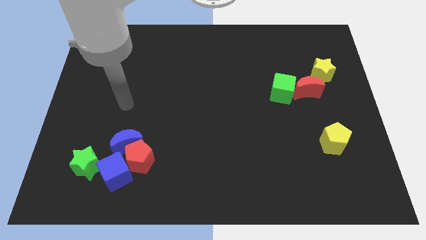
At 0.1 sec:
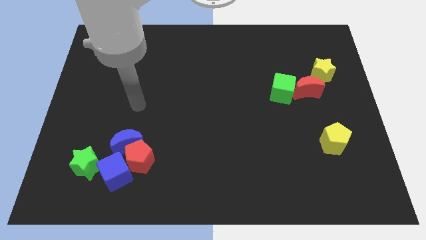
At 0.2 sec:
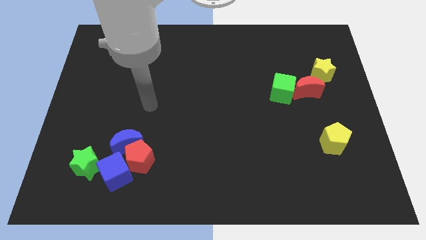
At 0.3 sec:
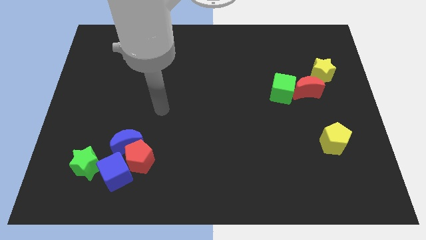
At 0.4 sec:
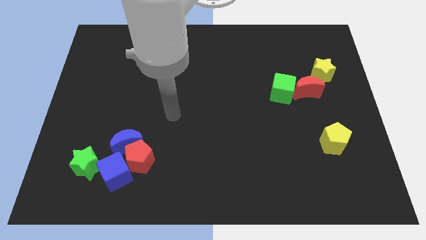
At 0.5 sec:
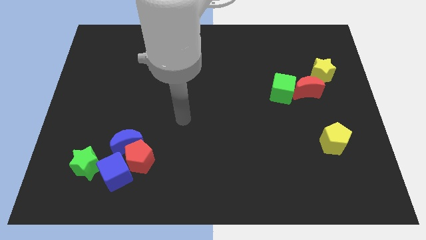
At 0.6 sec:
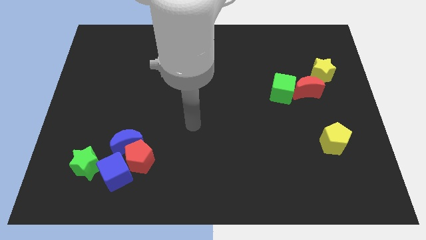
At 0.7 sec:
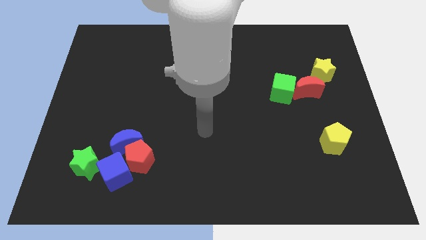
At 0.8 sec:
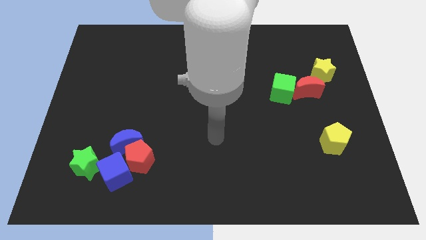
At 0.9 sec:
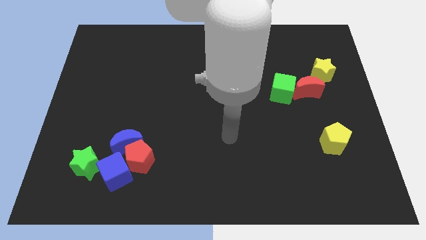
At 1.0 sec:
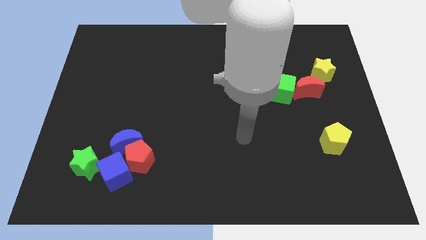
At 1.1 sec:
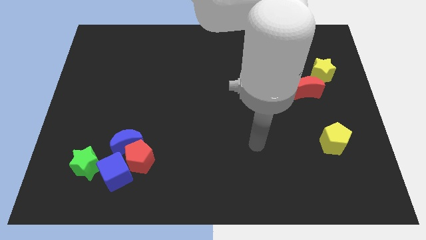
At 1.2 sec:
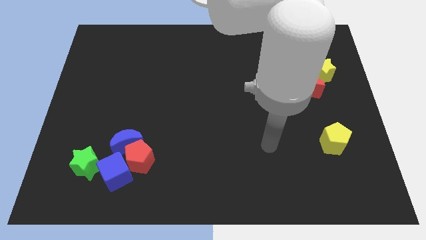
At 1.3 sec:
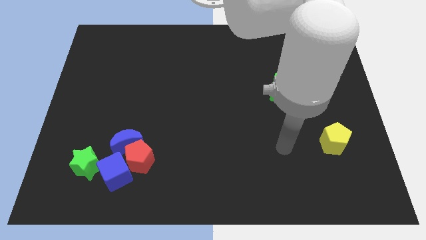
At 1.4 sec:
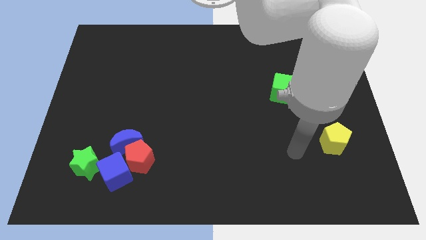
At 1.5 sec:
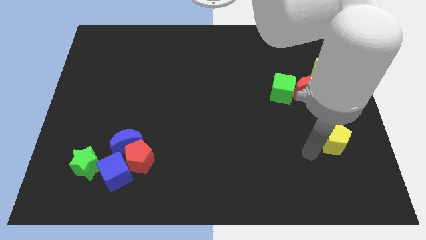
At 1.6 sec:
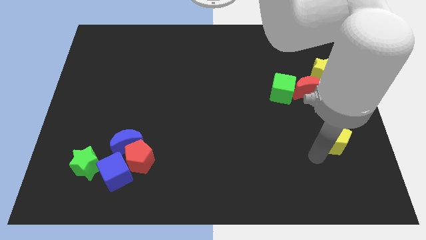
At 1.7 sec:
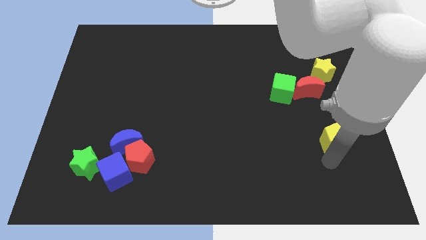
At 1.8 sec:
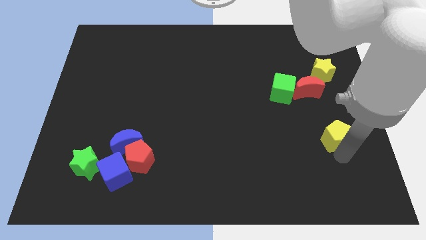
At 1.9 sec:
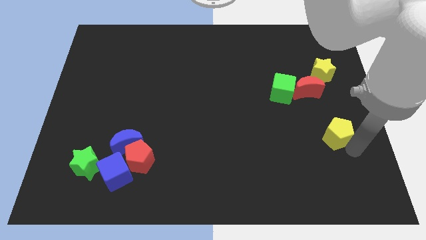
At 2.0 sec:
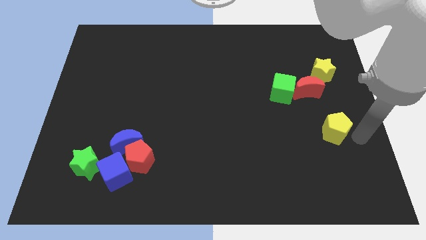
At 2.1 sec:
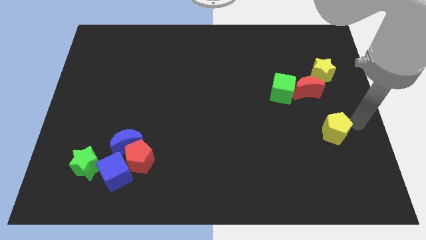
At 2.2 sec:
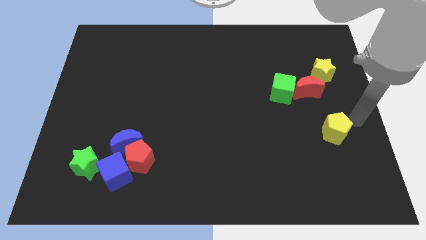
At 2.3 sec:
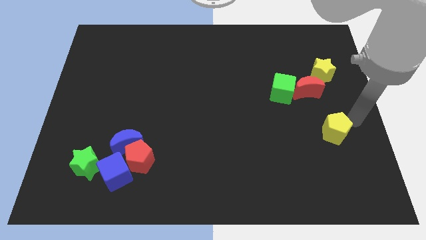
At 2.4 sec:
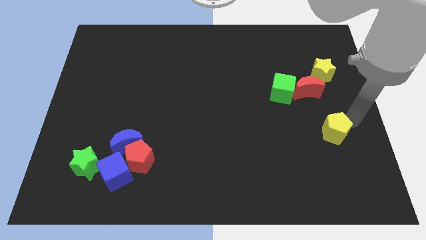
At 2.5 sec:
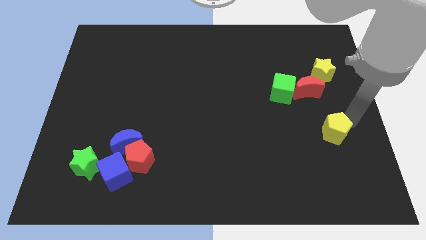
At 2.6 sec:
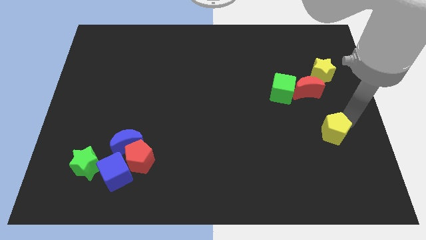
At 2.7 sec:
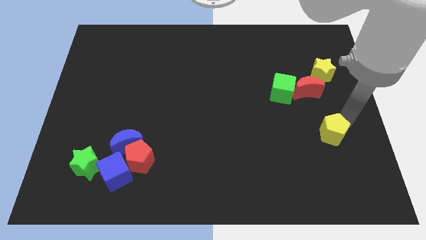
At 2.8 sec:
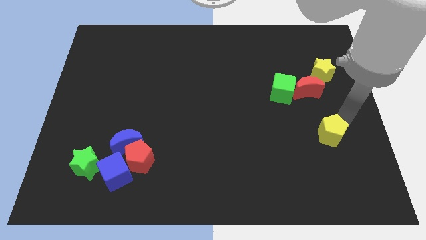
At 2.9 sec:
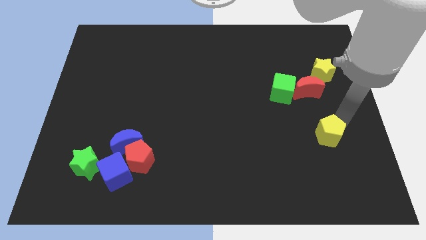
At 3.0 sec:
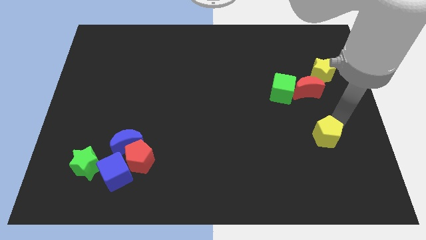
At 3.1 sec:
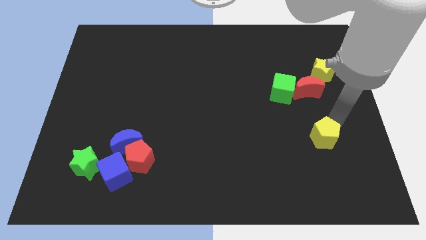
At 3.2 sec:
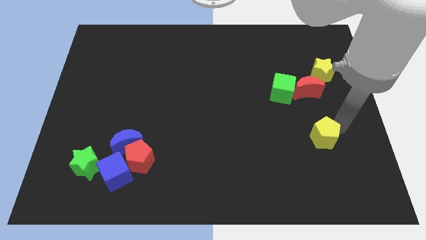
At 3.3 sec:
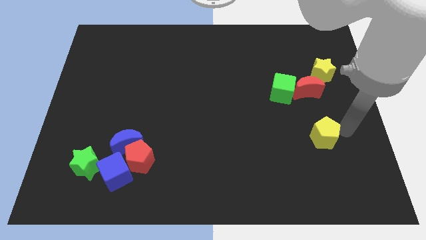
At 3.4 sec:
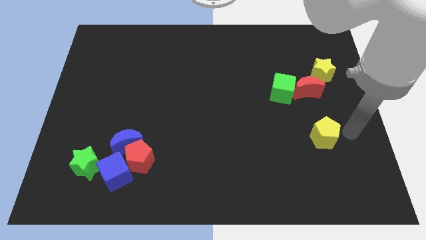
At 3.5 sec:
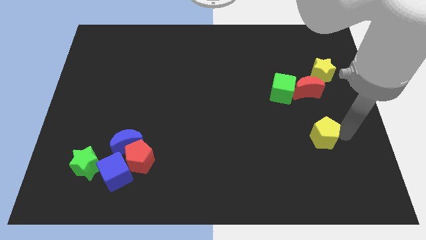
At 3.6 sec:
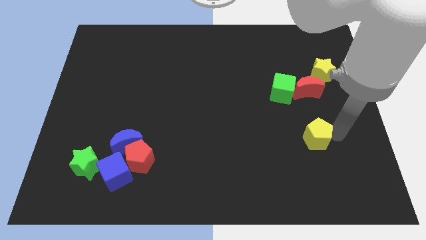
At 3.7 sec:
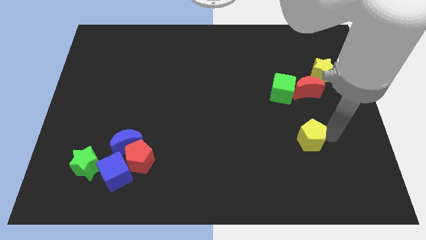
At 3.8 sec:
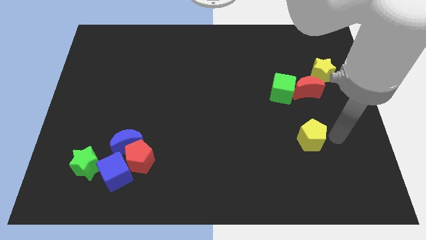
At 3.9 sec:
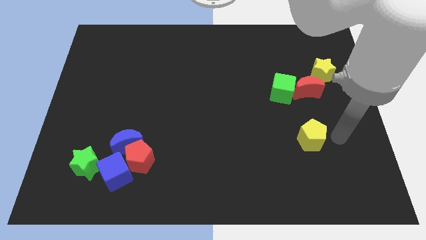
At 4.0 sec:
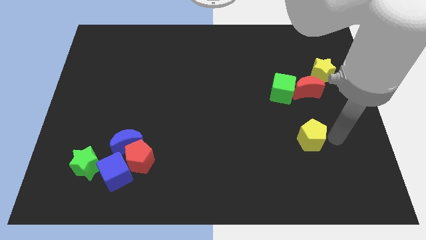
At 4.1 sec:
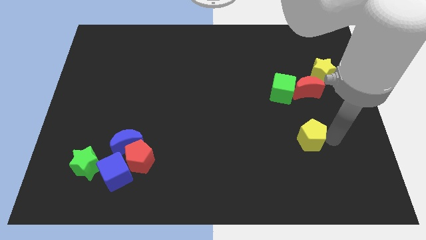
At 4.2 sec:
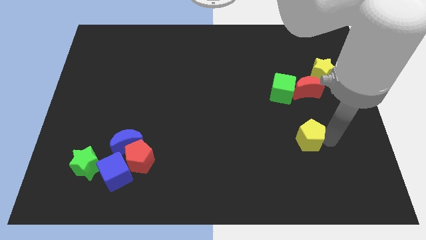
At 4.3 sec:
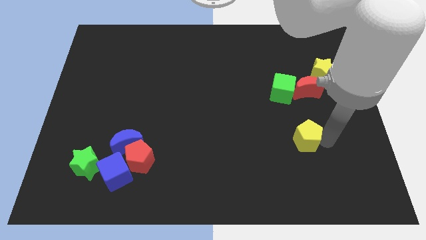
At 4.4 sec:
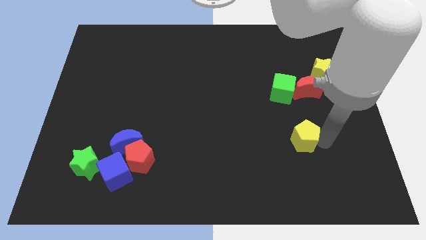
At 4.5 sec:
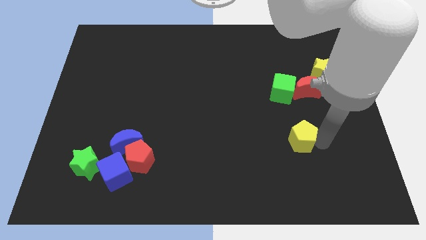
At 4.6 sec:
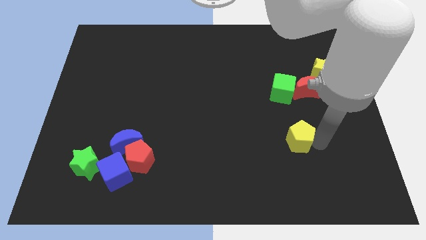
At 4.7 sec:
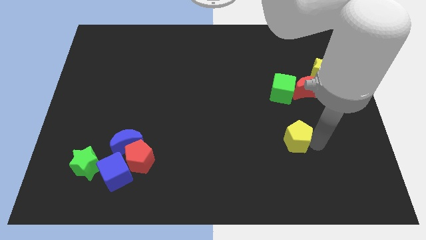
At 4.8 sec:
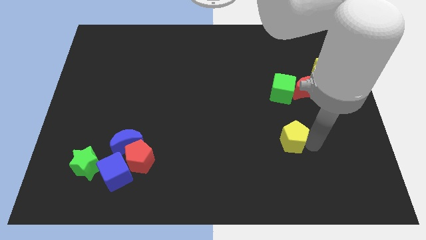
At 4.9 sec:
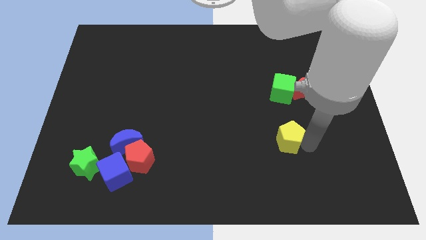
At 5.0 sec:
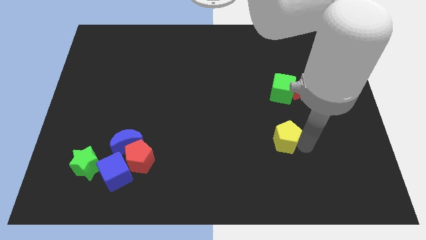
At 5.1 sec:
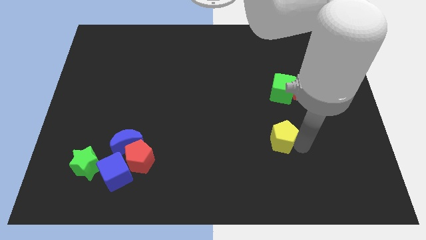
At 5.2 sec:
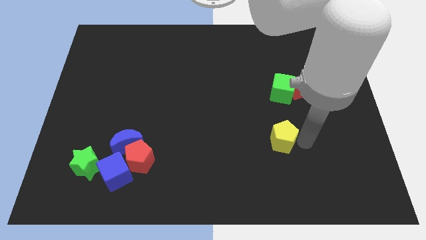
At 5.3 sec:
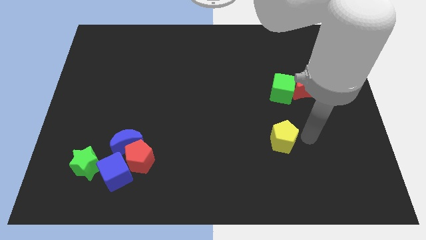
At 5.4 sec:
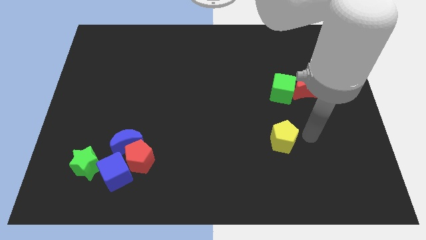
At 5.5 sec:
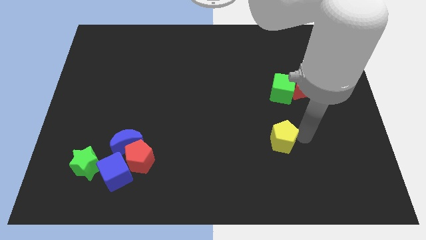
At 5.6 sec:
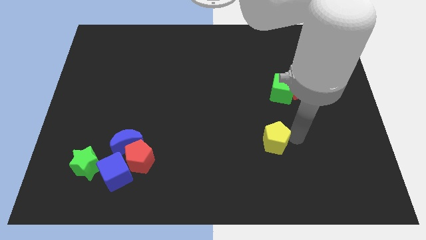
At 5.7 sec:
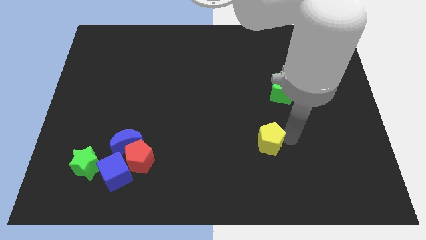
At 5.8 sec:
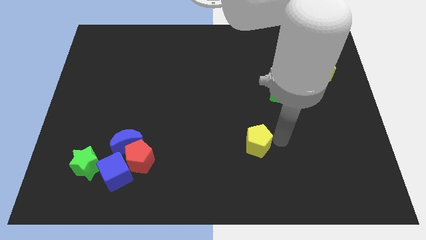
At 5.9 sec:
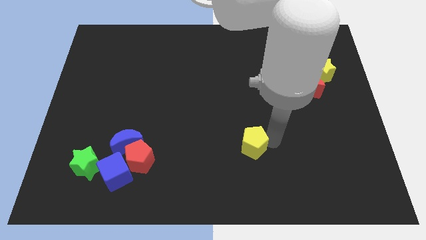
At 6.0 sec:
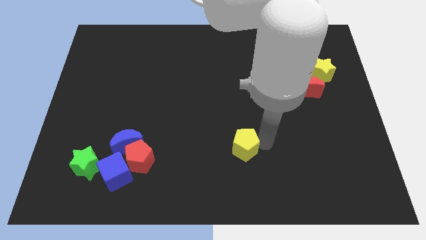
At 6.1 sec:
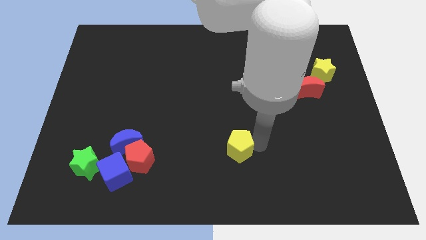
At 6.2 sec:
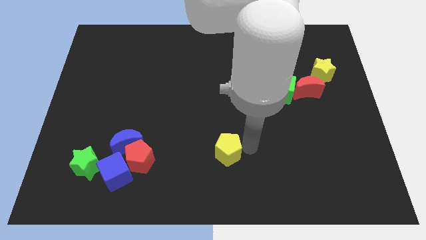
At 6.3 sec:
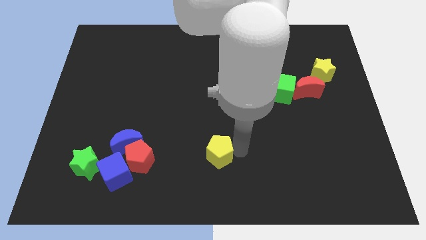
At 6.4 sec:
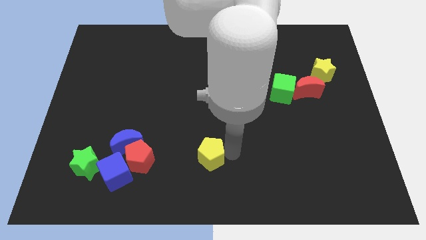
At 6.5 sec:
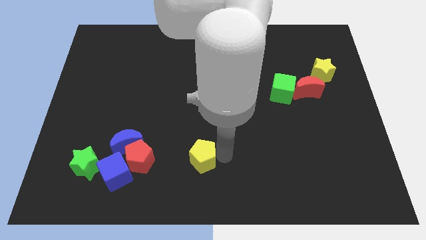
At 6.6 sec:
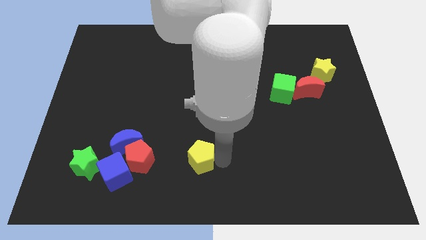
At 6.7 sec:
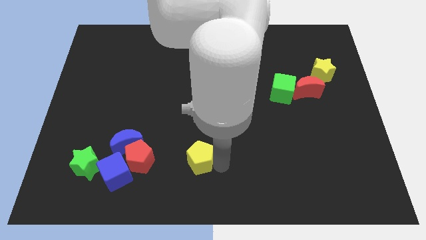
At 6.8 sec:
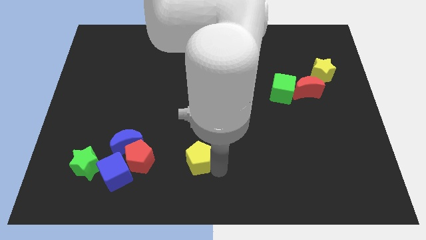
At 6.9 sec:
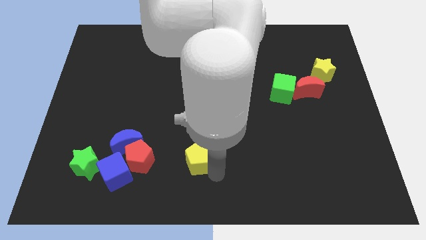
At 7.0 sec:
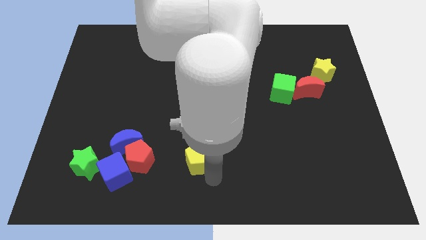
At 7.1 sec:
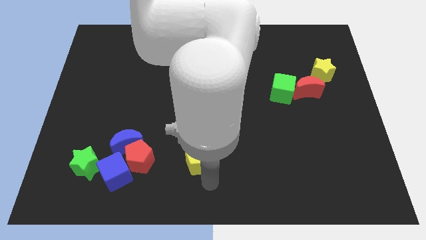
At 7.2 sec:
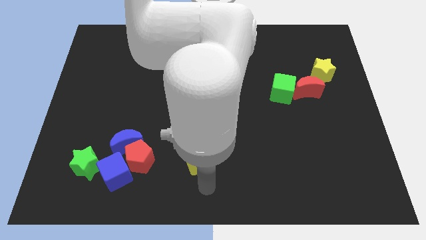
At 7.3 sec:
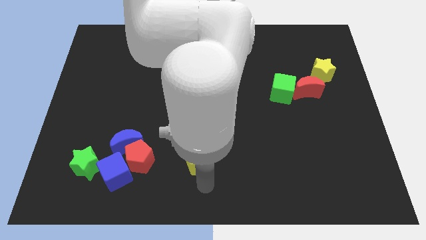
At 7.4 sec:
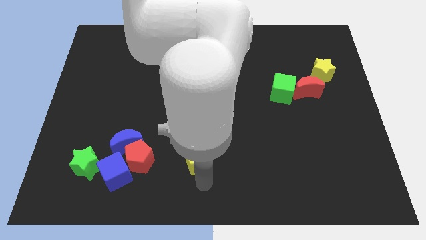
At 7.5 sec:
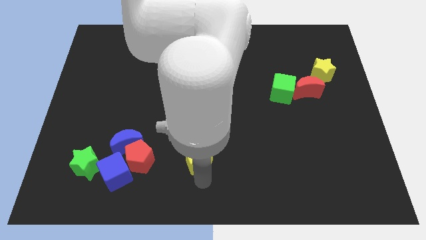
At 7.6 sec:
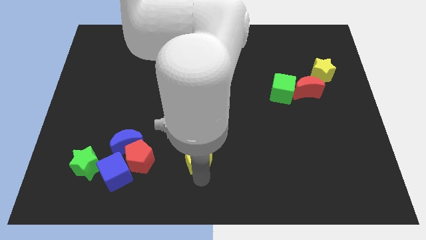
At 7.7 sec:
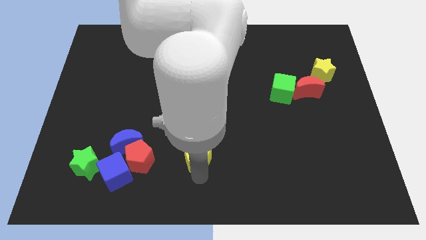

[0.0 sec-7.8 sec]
put the yellow pentagon to the right side of the blue moon
